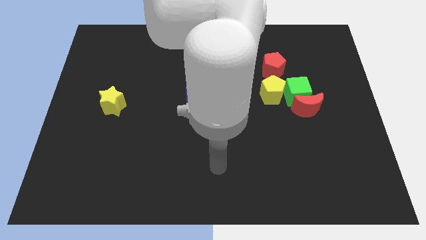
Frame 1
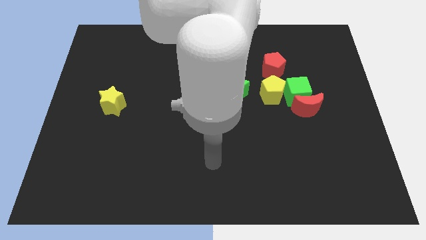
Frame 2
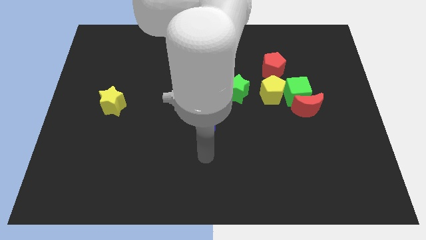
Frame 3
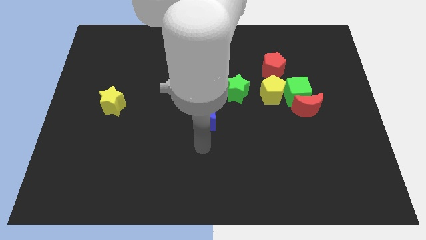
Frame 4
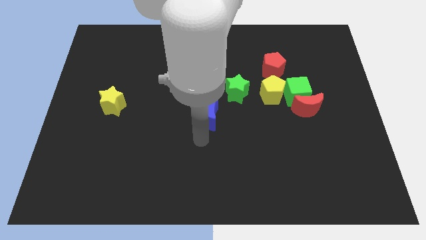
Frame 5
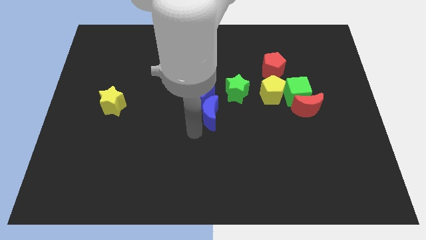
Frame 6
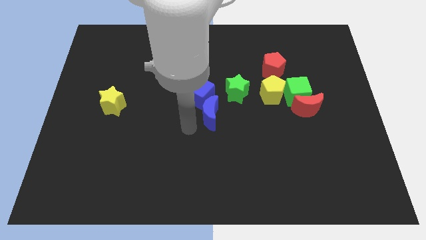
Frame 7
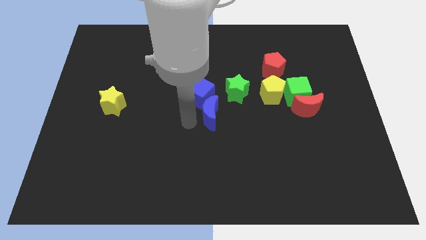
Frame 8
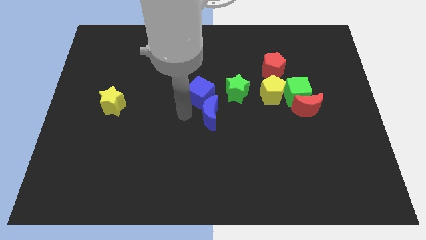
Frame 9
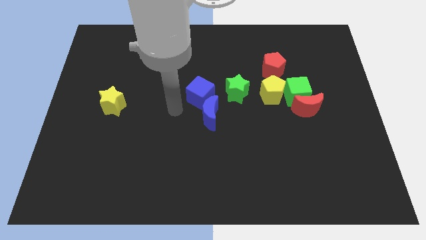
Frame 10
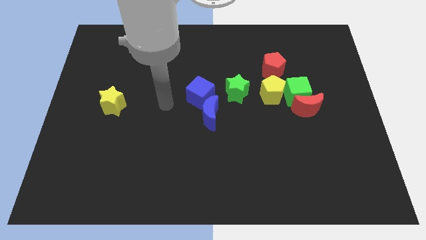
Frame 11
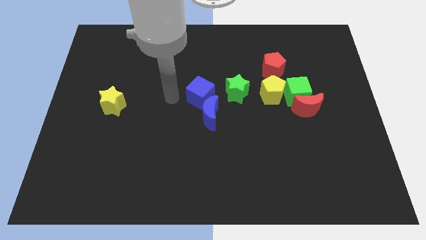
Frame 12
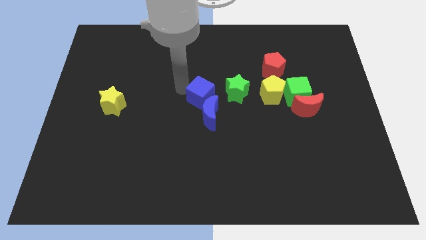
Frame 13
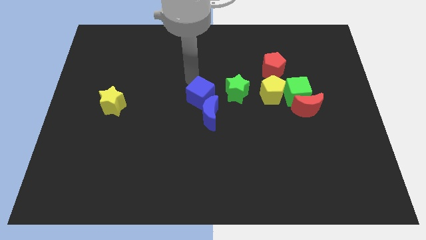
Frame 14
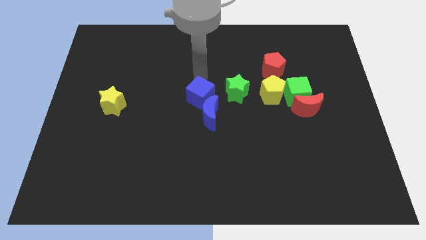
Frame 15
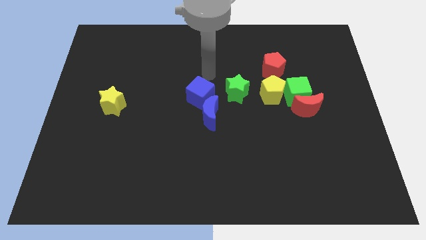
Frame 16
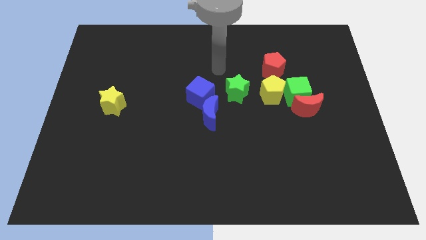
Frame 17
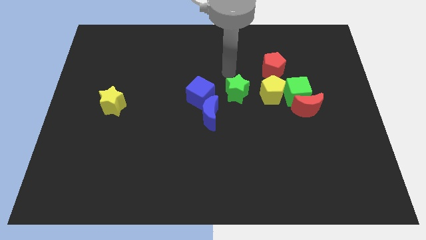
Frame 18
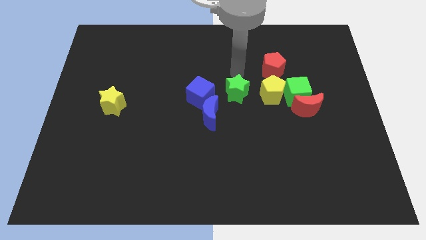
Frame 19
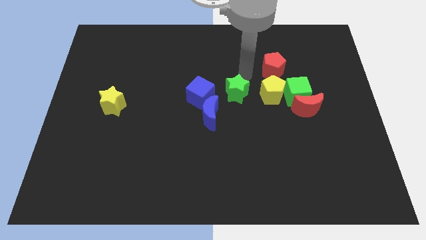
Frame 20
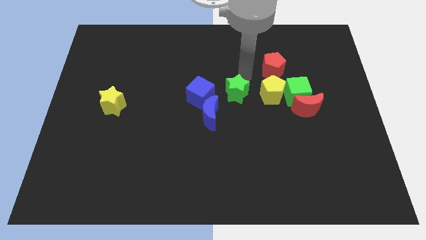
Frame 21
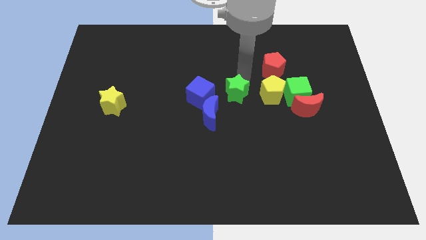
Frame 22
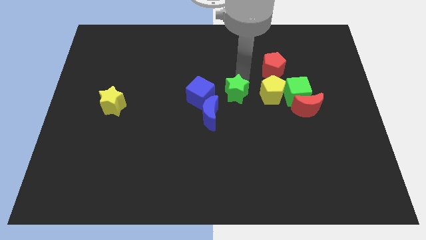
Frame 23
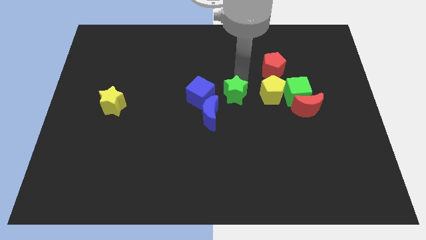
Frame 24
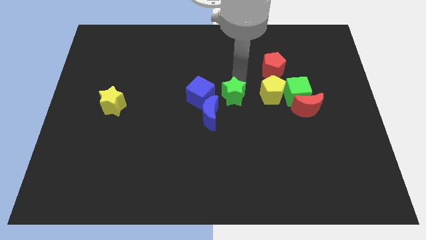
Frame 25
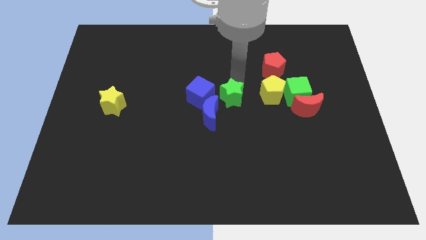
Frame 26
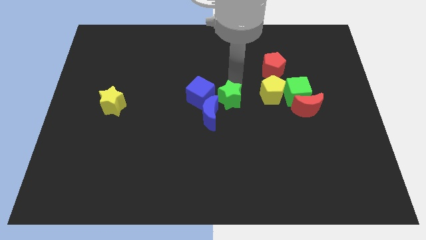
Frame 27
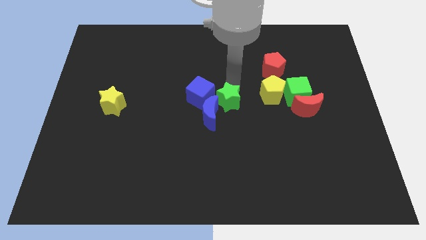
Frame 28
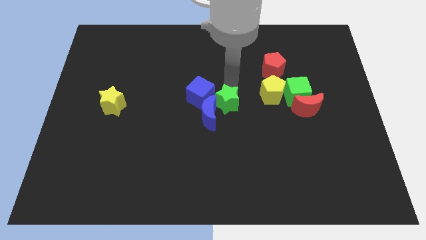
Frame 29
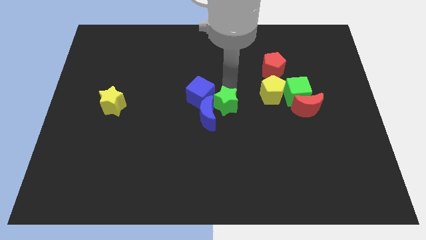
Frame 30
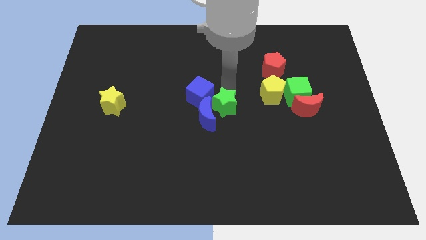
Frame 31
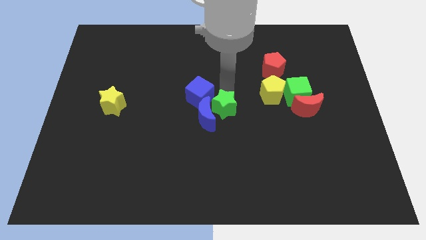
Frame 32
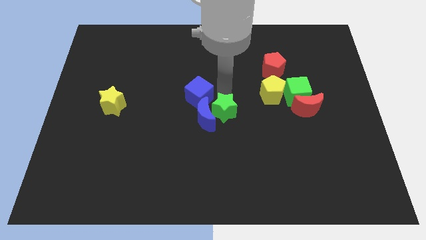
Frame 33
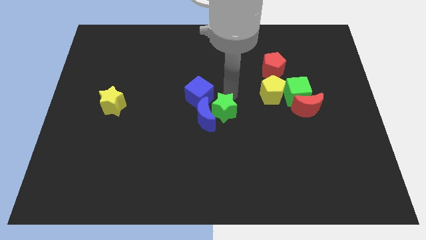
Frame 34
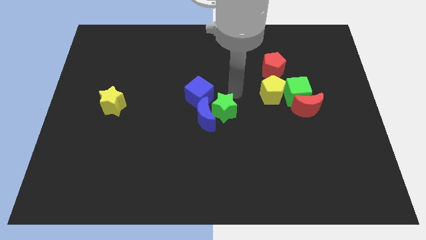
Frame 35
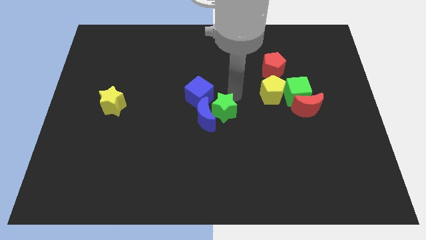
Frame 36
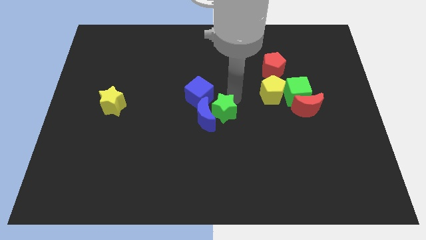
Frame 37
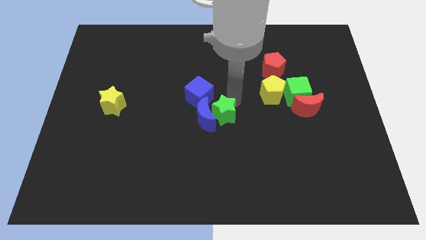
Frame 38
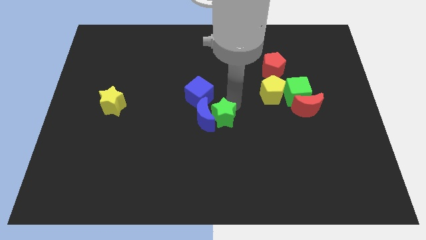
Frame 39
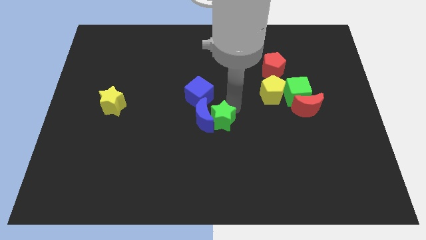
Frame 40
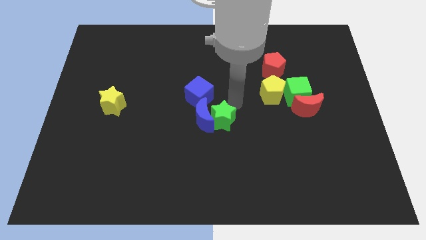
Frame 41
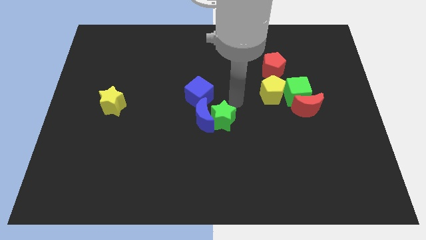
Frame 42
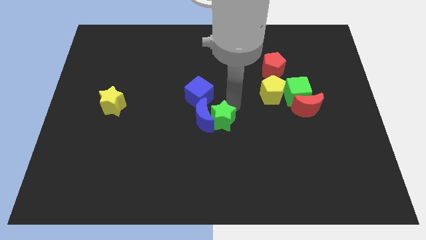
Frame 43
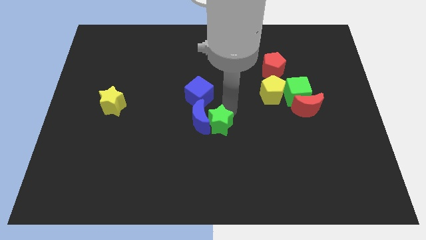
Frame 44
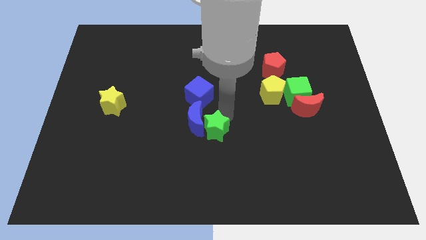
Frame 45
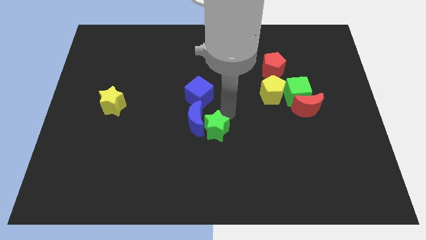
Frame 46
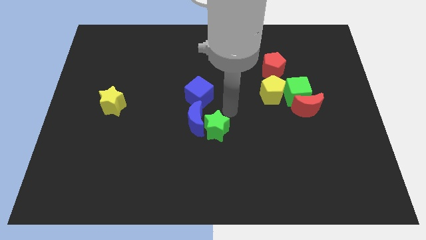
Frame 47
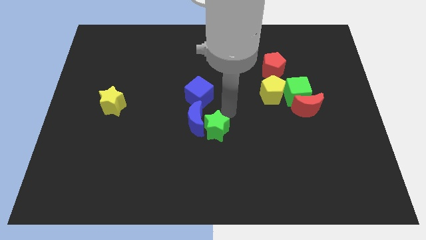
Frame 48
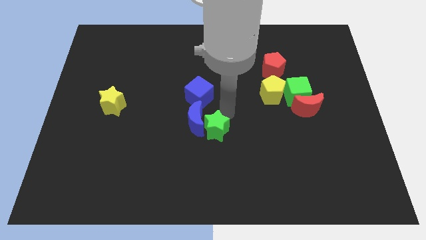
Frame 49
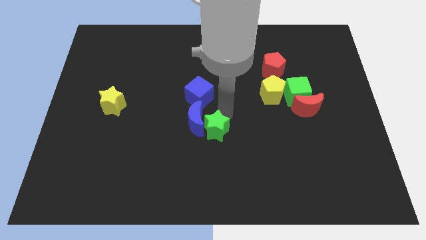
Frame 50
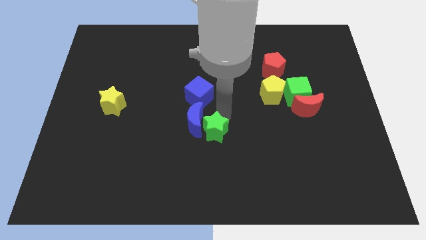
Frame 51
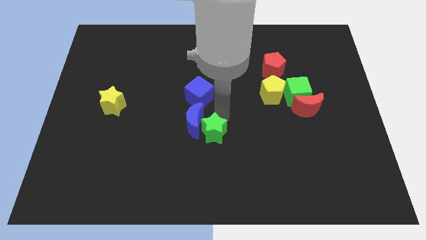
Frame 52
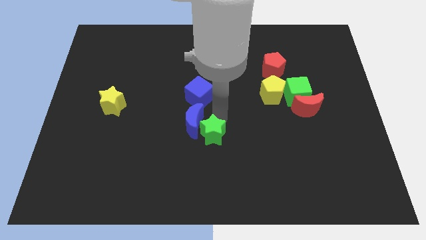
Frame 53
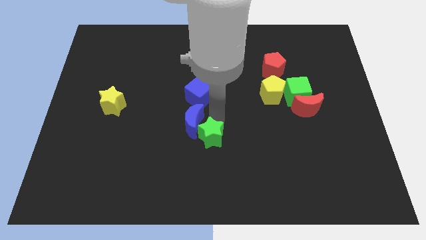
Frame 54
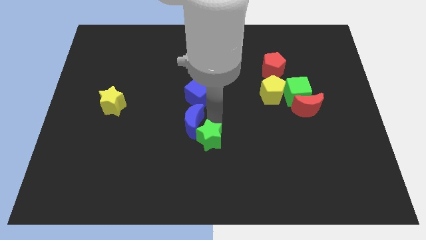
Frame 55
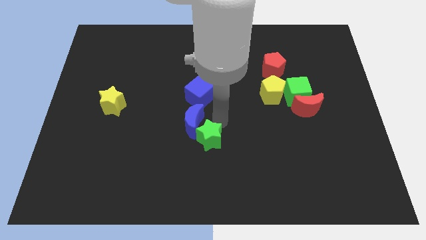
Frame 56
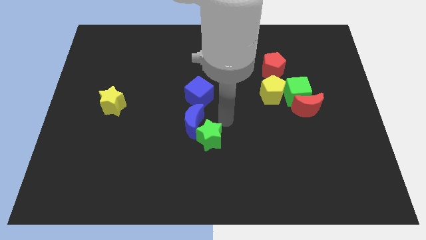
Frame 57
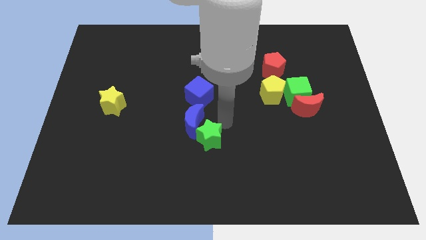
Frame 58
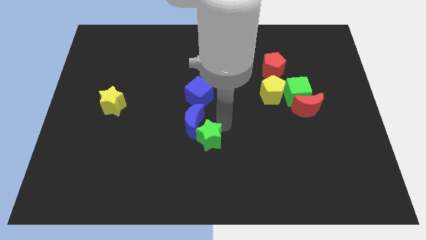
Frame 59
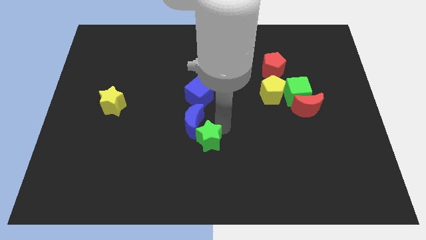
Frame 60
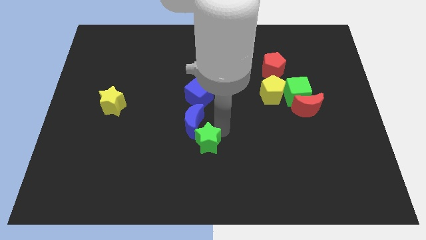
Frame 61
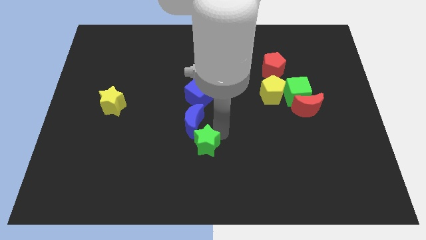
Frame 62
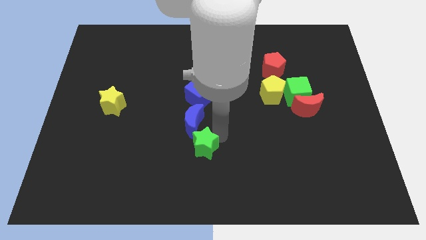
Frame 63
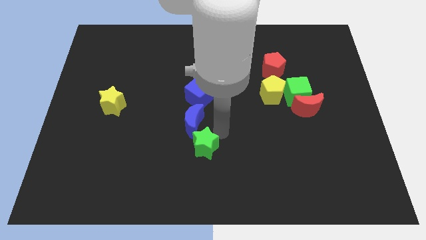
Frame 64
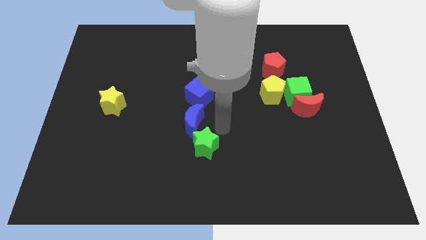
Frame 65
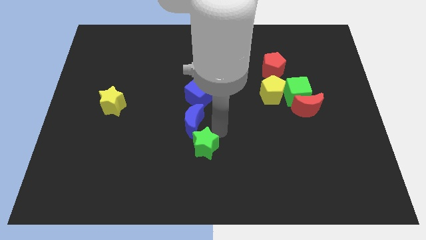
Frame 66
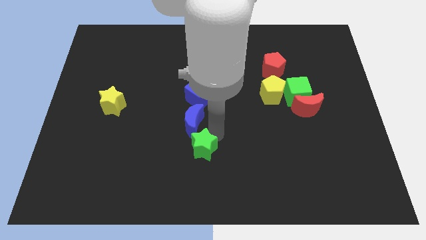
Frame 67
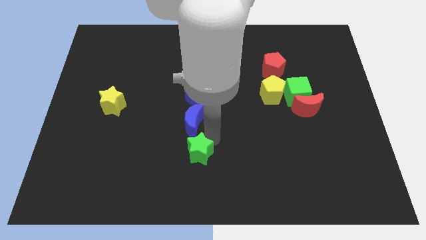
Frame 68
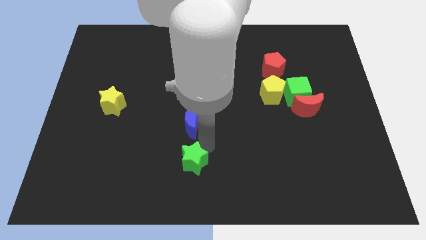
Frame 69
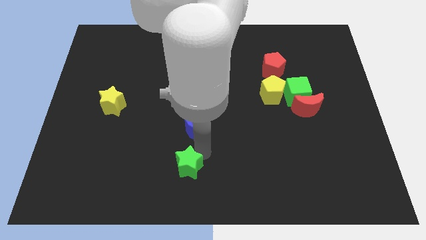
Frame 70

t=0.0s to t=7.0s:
slide the green star down and left

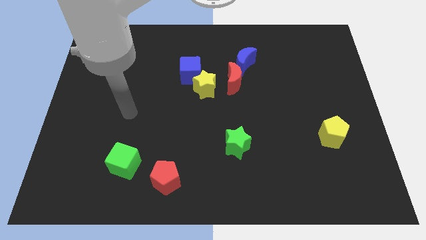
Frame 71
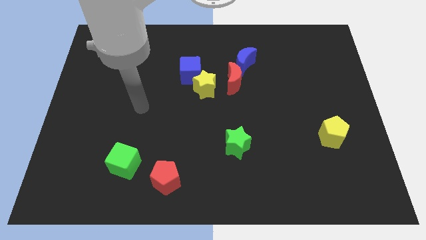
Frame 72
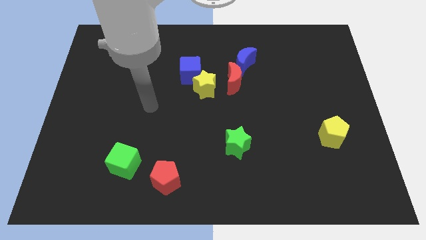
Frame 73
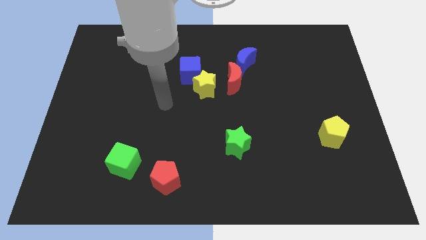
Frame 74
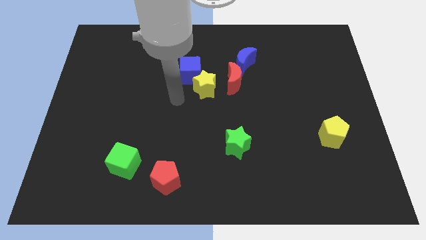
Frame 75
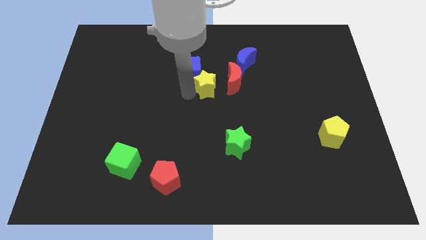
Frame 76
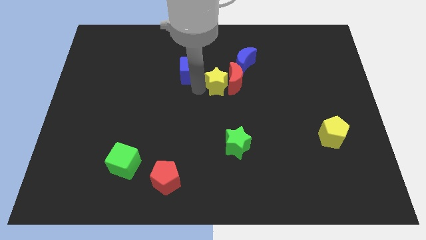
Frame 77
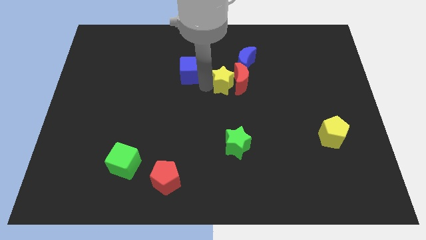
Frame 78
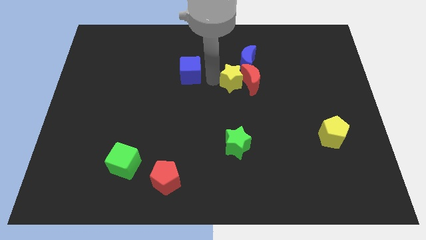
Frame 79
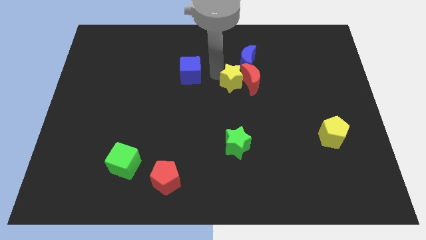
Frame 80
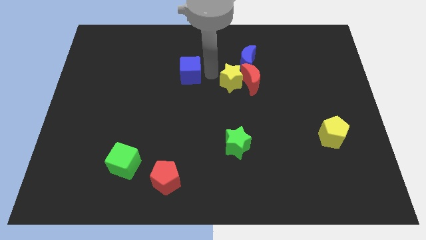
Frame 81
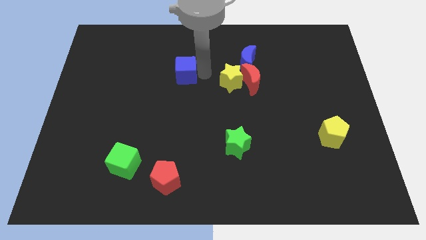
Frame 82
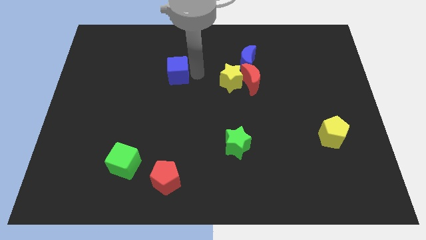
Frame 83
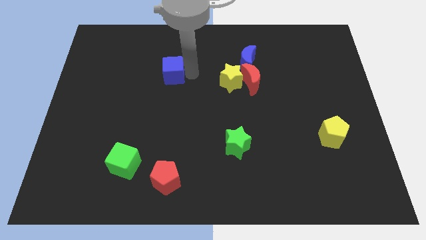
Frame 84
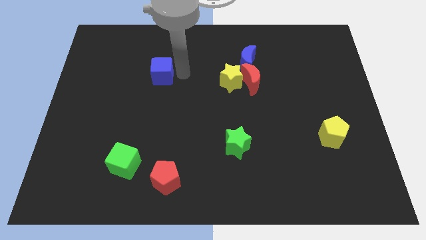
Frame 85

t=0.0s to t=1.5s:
slide the blue cube left somewhat
